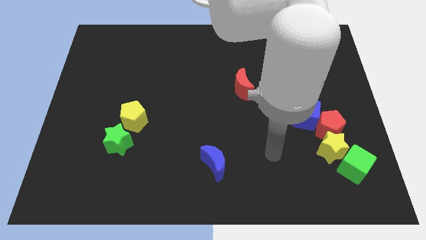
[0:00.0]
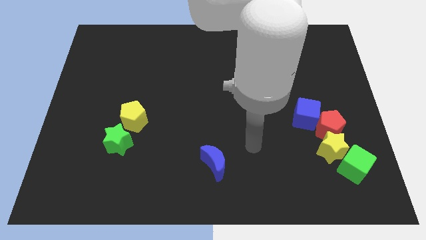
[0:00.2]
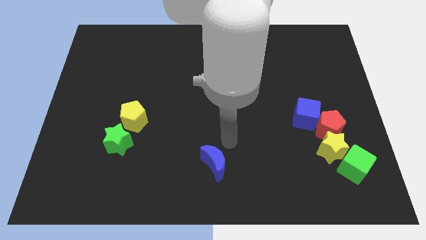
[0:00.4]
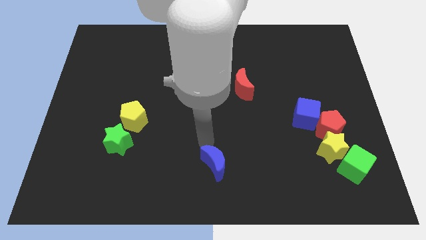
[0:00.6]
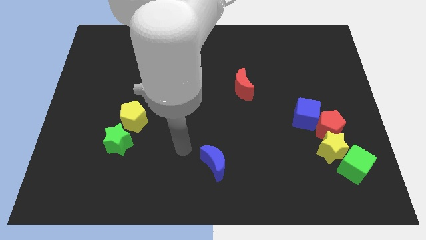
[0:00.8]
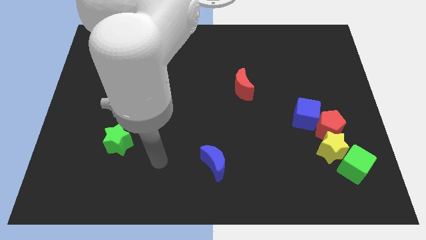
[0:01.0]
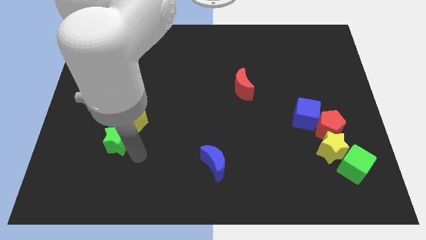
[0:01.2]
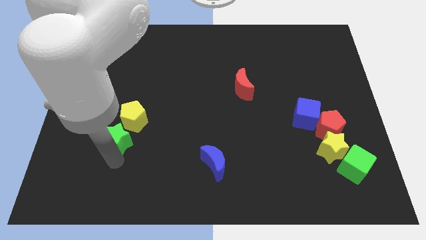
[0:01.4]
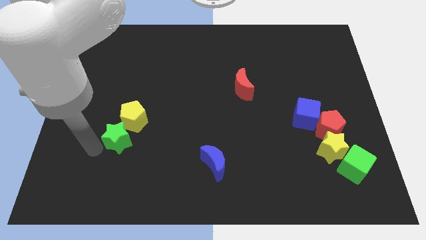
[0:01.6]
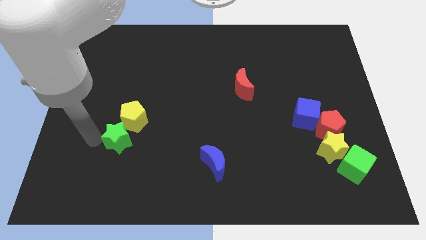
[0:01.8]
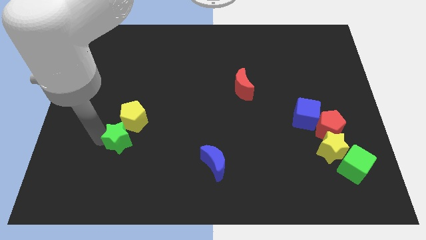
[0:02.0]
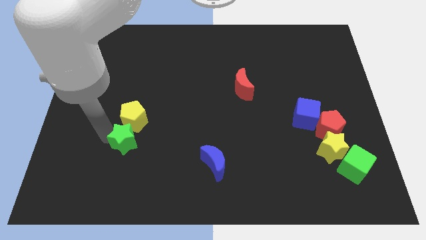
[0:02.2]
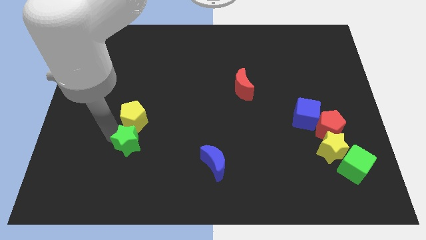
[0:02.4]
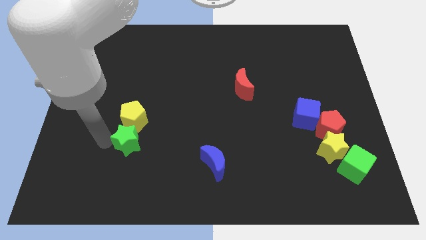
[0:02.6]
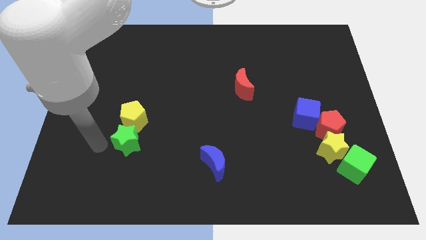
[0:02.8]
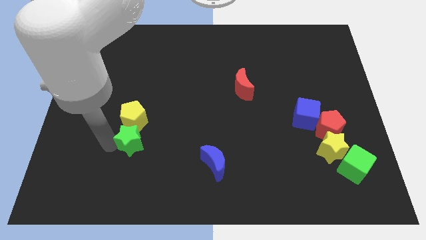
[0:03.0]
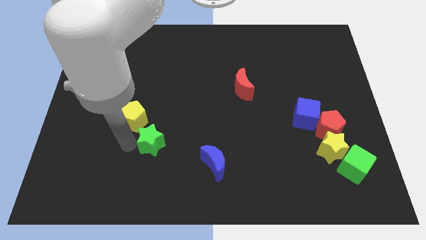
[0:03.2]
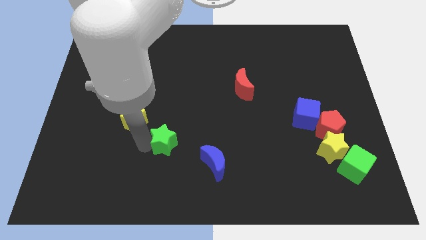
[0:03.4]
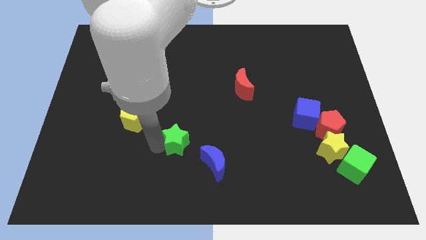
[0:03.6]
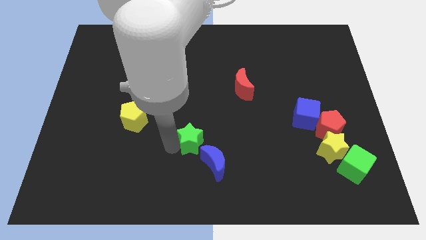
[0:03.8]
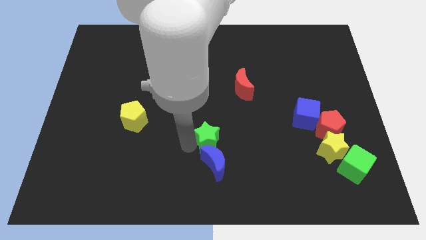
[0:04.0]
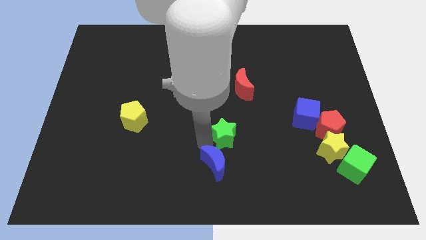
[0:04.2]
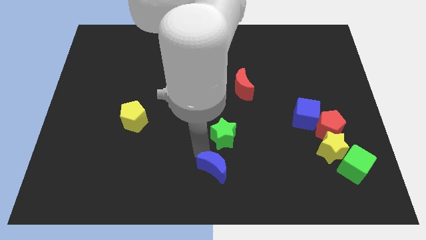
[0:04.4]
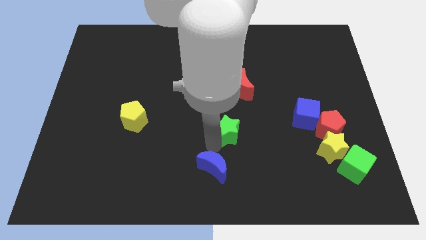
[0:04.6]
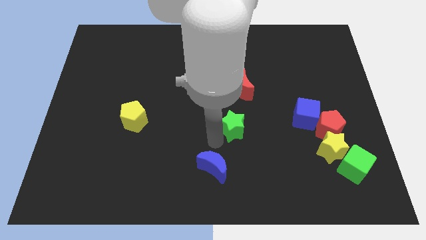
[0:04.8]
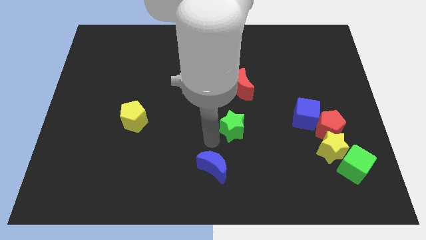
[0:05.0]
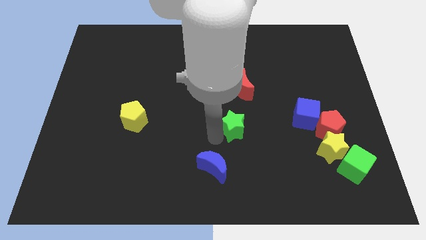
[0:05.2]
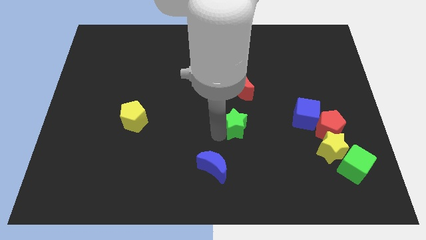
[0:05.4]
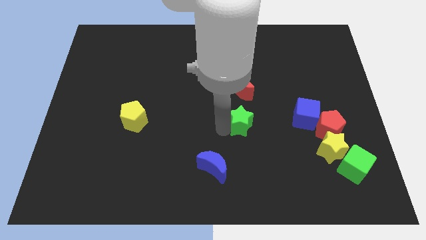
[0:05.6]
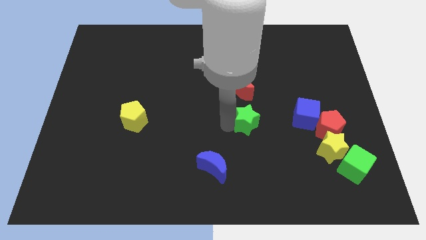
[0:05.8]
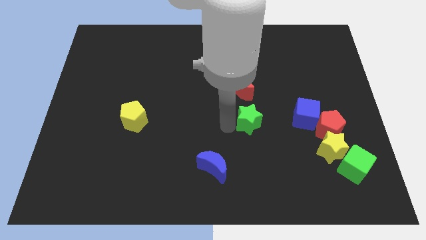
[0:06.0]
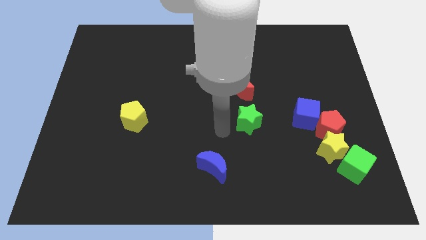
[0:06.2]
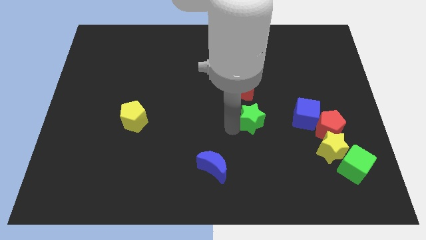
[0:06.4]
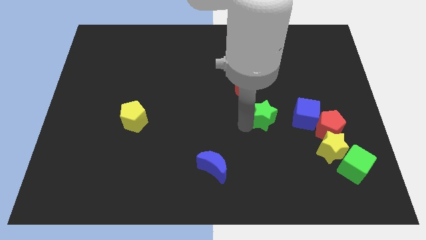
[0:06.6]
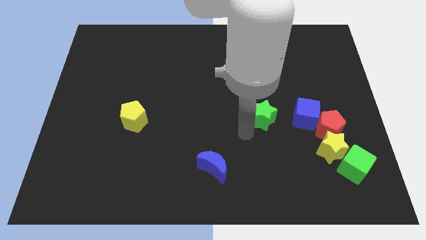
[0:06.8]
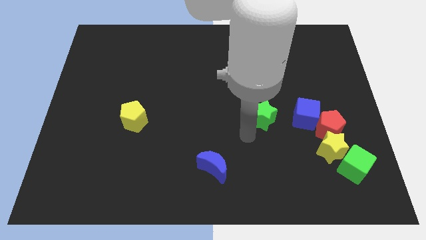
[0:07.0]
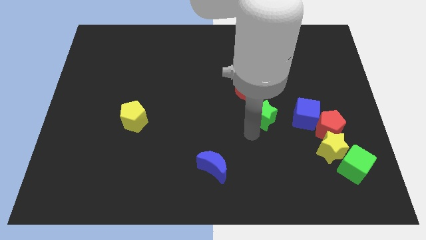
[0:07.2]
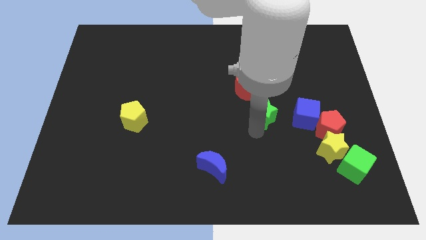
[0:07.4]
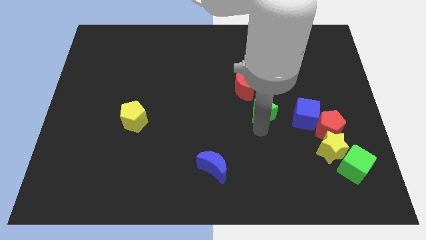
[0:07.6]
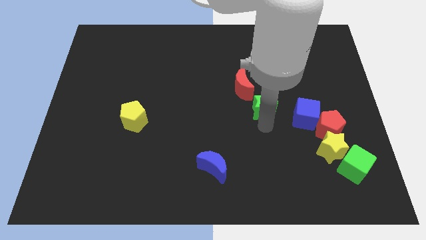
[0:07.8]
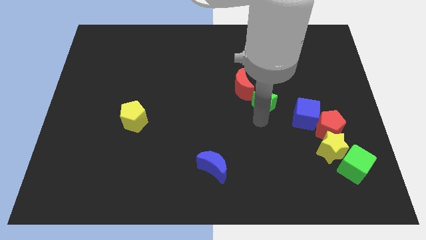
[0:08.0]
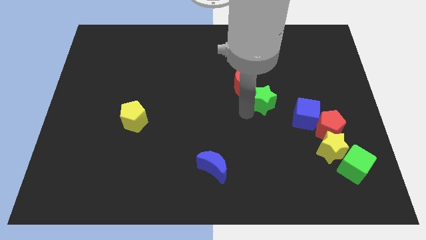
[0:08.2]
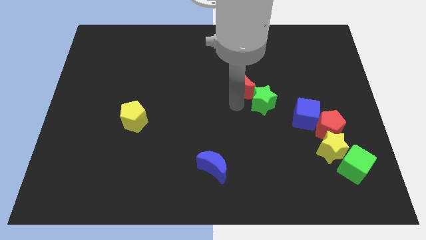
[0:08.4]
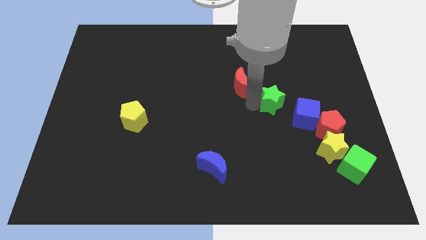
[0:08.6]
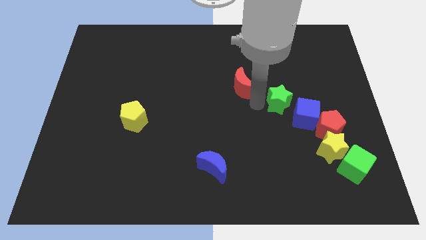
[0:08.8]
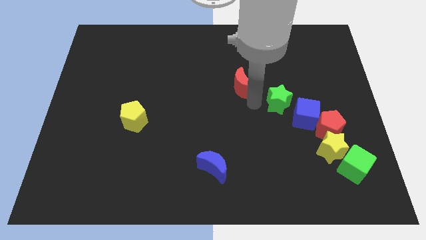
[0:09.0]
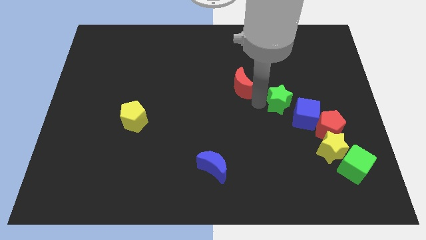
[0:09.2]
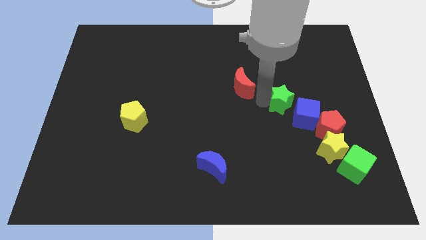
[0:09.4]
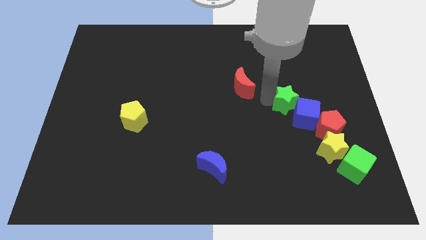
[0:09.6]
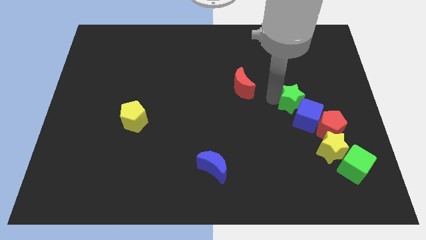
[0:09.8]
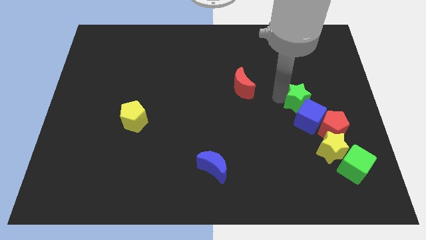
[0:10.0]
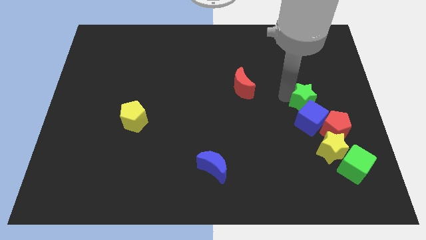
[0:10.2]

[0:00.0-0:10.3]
push the green star to the top side of the yellow star

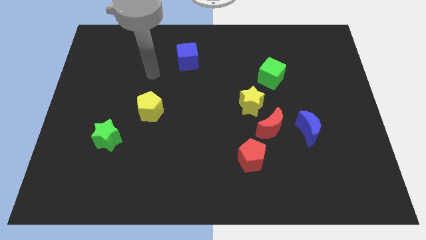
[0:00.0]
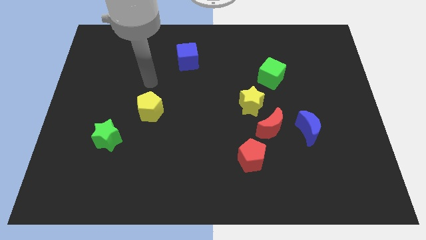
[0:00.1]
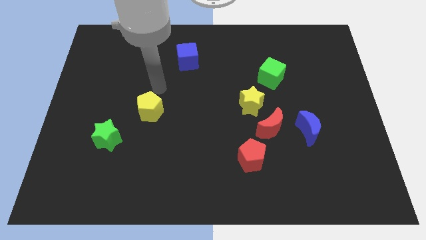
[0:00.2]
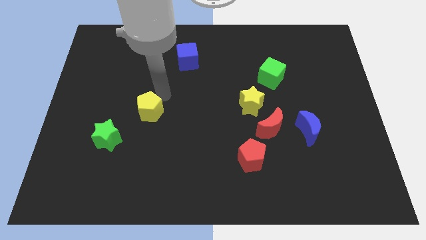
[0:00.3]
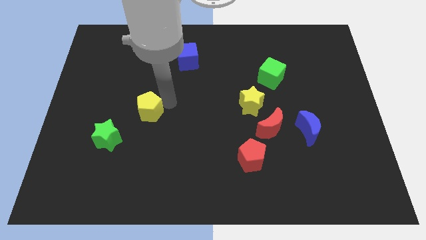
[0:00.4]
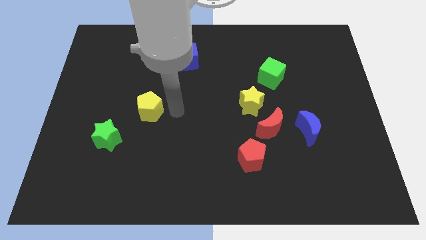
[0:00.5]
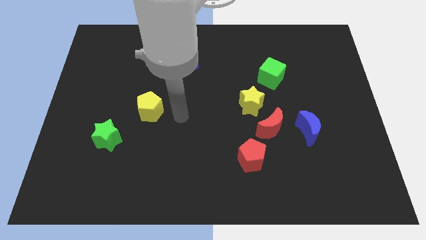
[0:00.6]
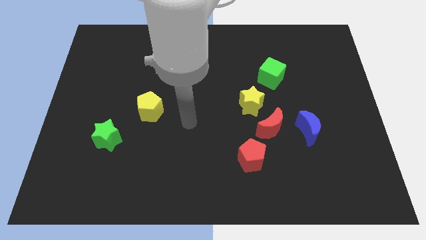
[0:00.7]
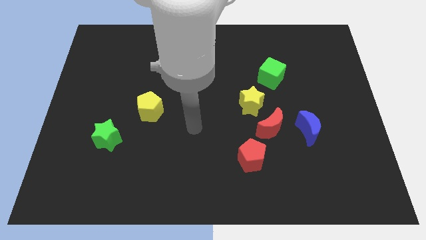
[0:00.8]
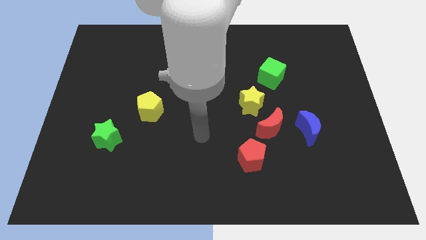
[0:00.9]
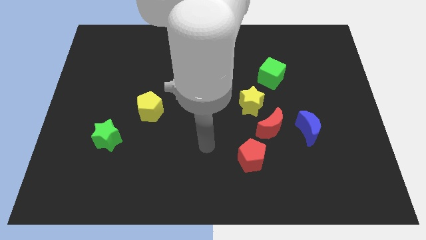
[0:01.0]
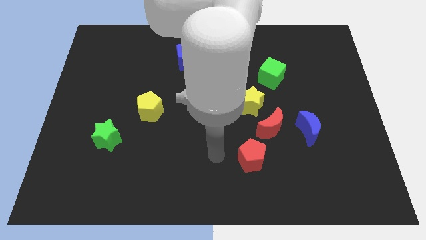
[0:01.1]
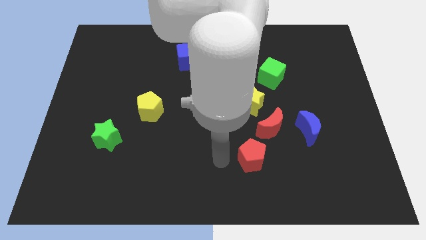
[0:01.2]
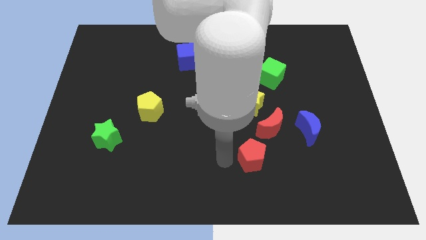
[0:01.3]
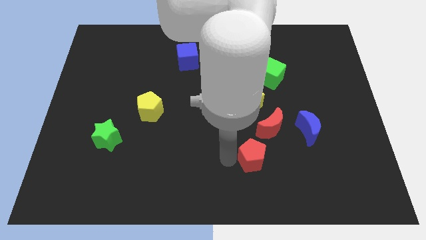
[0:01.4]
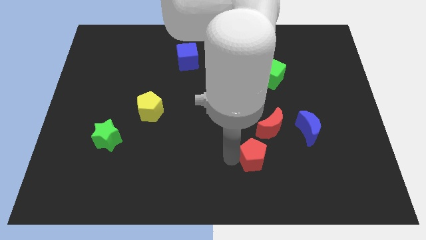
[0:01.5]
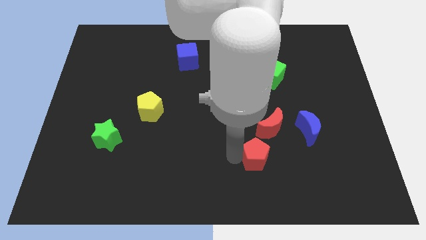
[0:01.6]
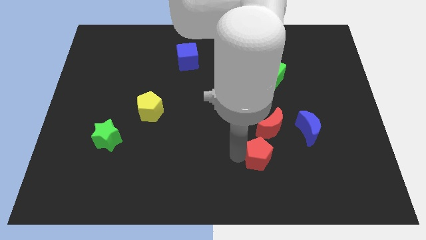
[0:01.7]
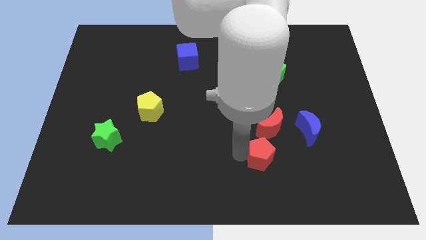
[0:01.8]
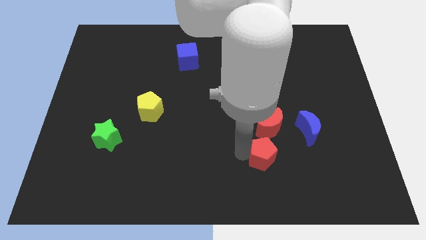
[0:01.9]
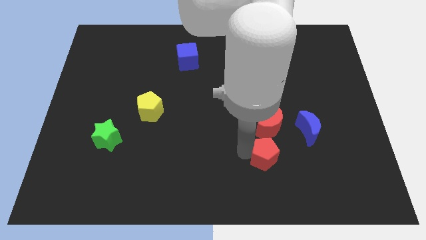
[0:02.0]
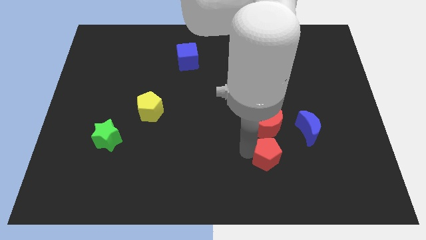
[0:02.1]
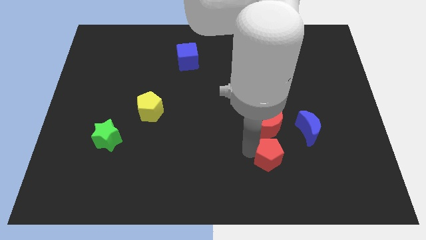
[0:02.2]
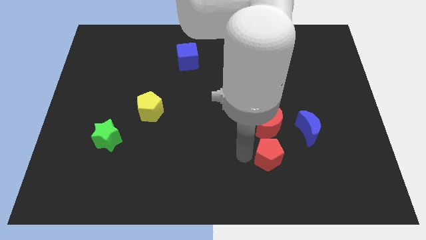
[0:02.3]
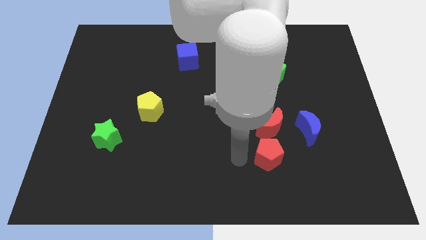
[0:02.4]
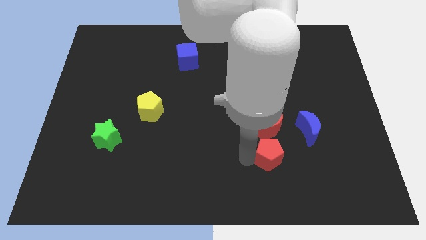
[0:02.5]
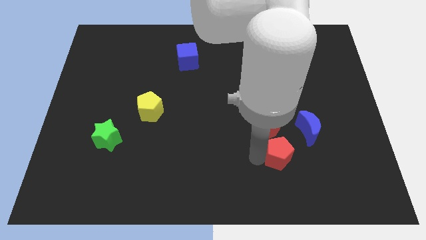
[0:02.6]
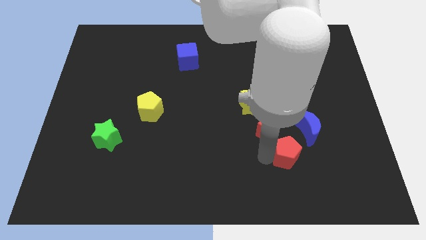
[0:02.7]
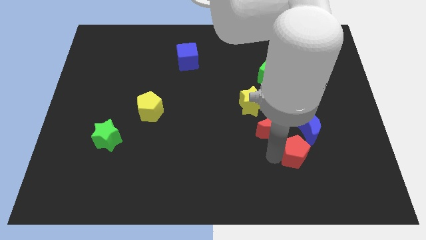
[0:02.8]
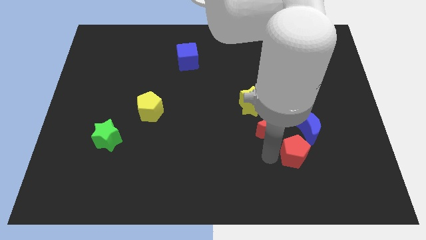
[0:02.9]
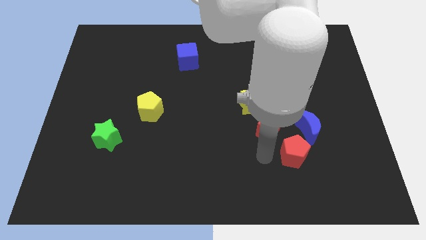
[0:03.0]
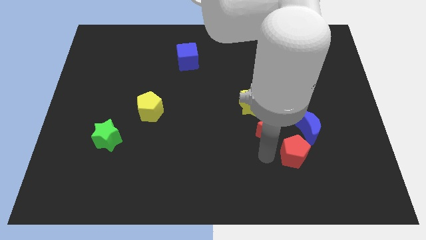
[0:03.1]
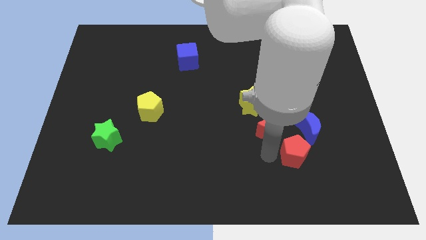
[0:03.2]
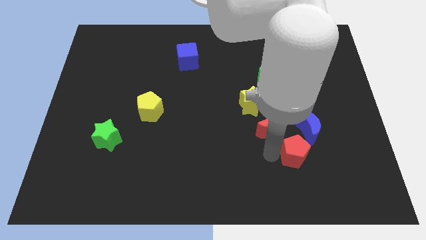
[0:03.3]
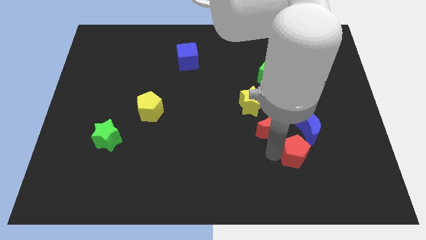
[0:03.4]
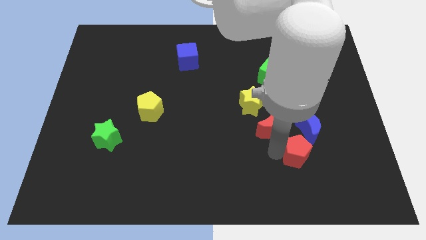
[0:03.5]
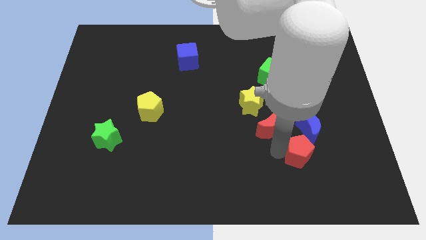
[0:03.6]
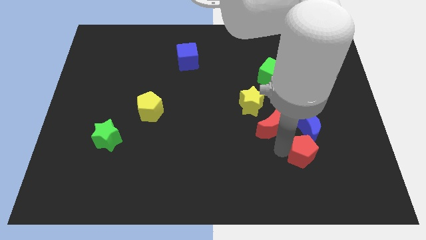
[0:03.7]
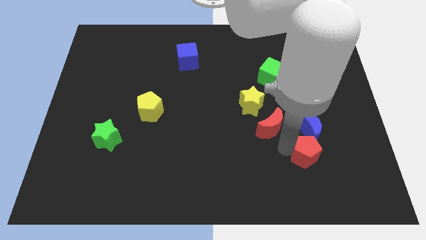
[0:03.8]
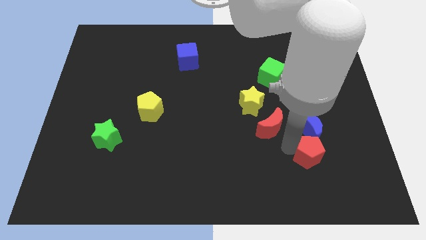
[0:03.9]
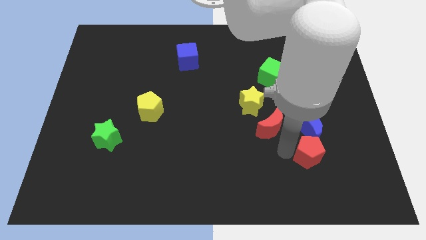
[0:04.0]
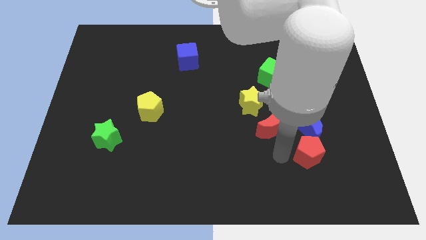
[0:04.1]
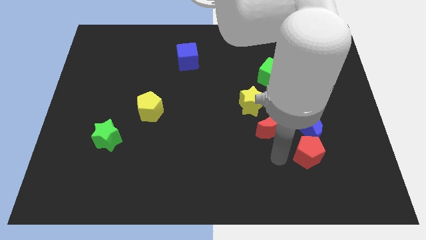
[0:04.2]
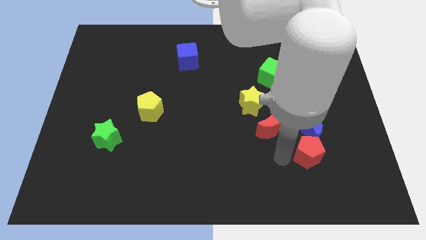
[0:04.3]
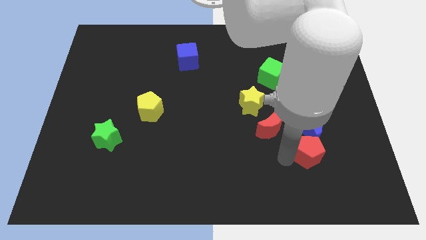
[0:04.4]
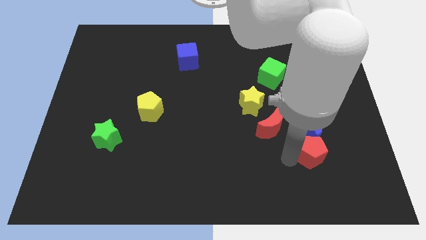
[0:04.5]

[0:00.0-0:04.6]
move the red pentagon to the bottom right side of the blue moon
